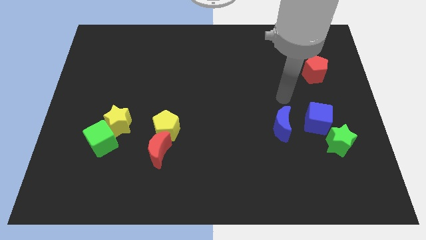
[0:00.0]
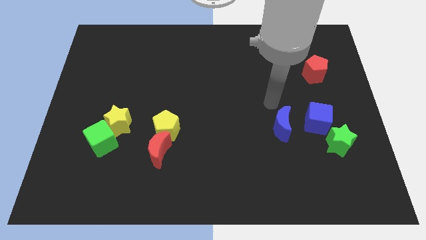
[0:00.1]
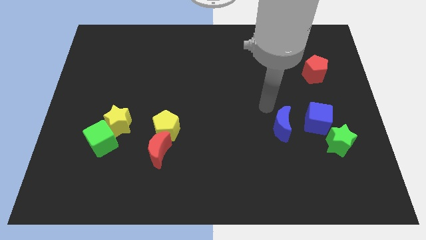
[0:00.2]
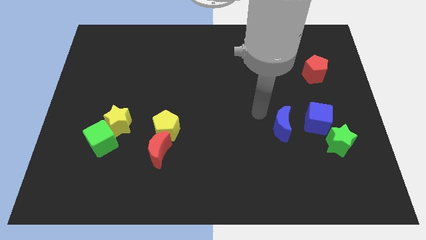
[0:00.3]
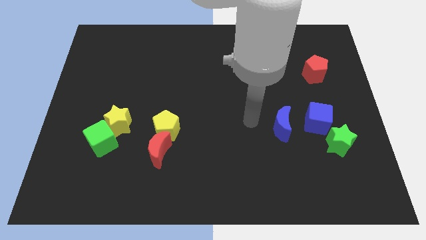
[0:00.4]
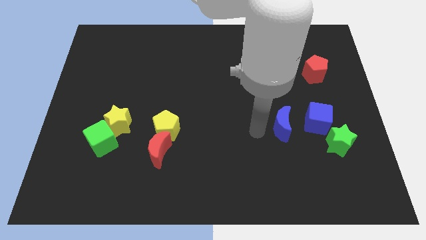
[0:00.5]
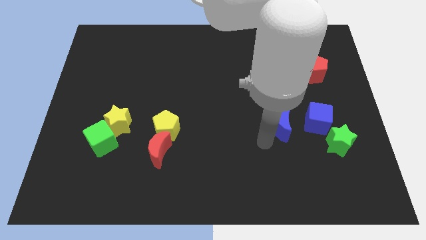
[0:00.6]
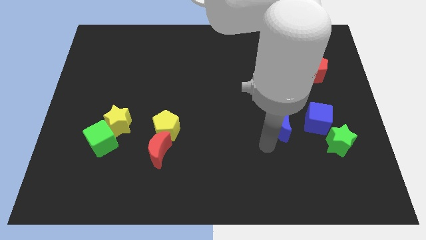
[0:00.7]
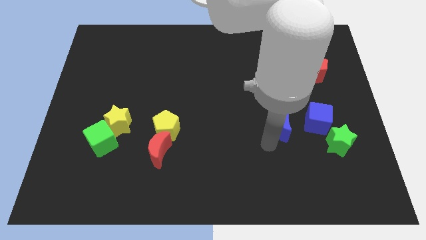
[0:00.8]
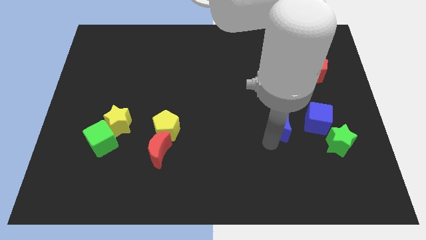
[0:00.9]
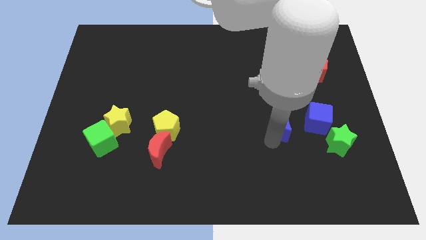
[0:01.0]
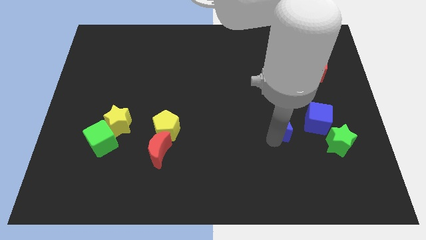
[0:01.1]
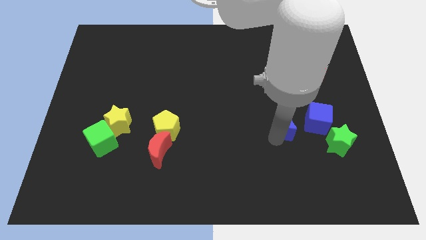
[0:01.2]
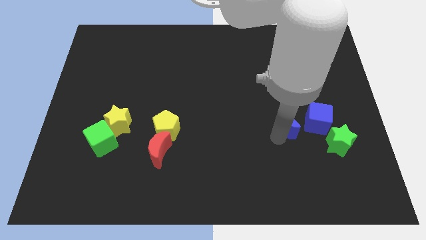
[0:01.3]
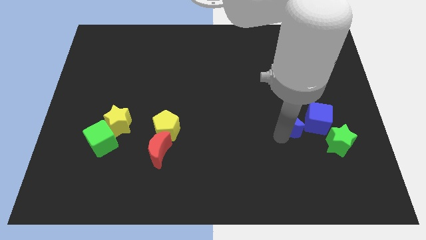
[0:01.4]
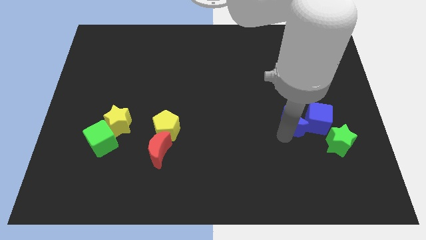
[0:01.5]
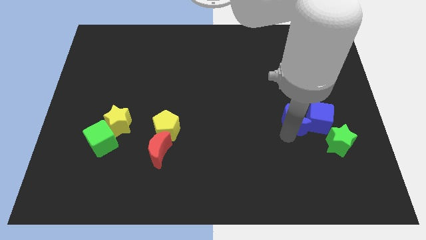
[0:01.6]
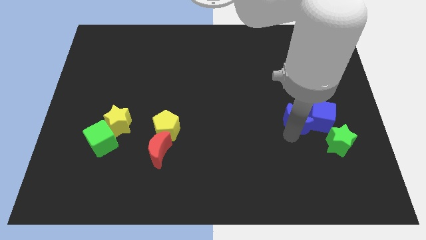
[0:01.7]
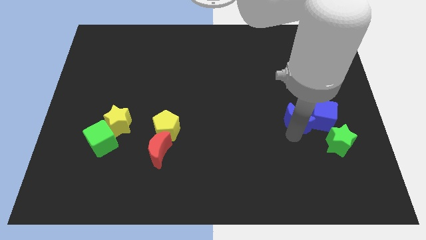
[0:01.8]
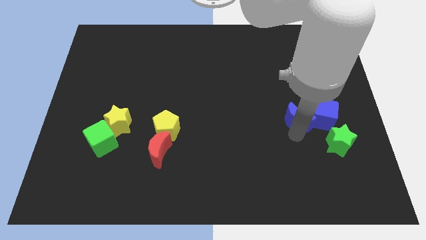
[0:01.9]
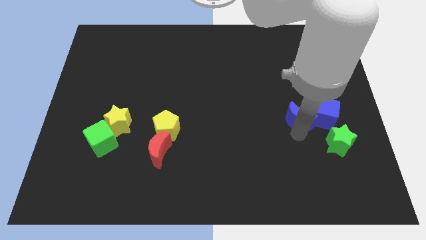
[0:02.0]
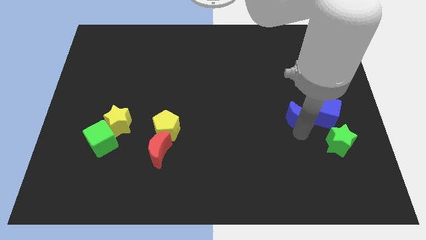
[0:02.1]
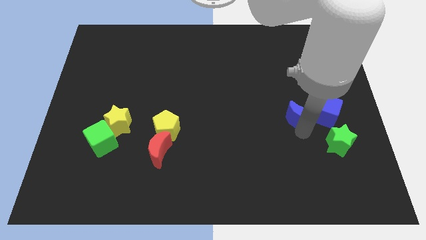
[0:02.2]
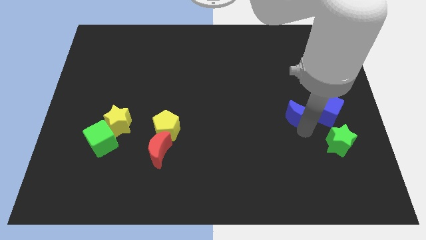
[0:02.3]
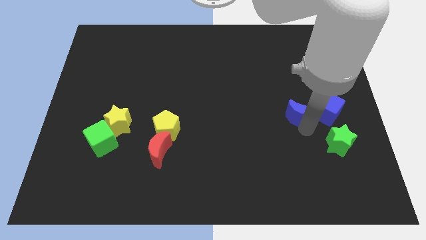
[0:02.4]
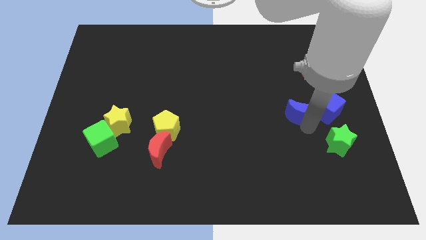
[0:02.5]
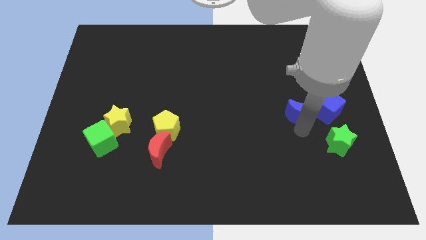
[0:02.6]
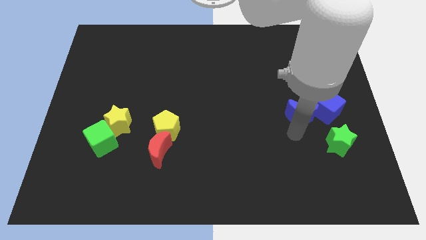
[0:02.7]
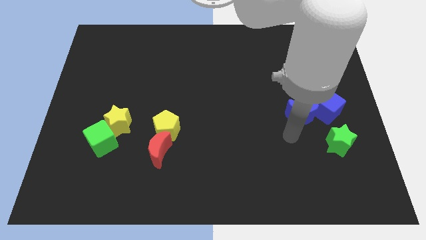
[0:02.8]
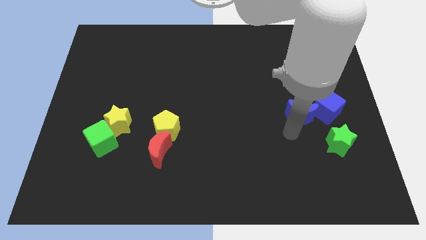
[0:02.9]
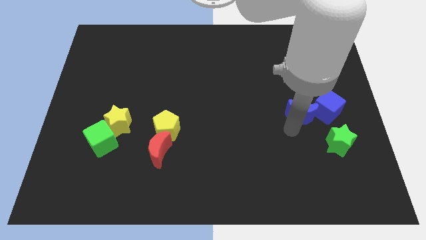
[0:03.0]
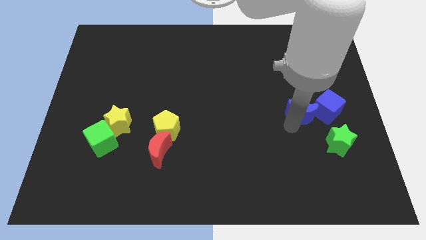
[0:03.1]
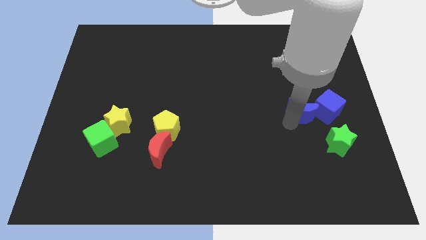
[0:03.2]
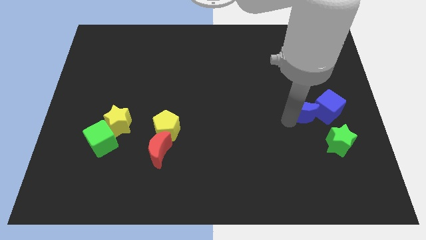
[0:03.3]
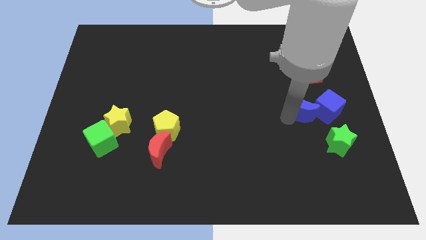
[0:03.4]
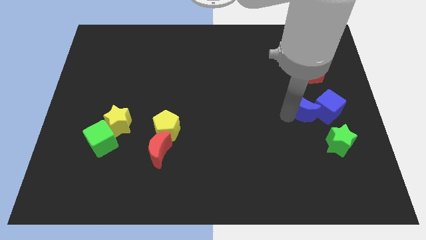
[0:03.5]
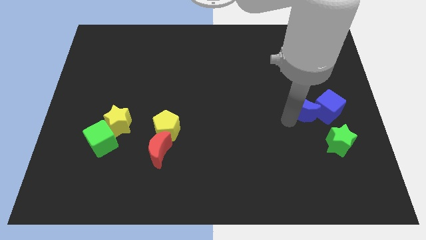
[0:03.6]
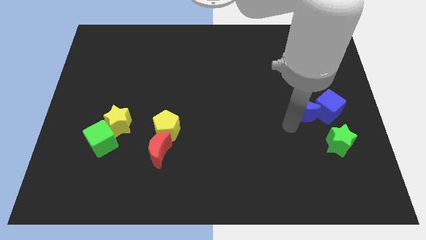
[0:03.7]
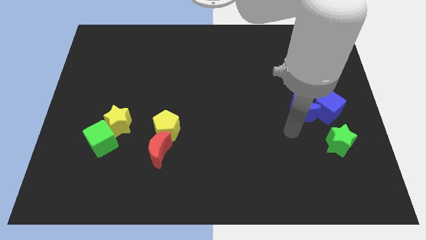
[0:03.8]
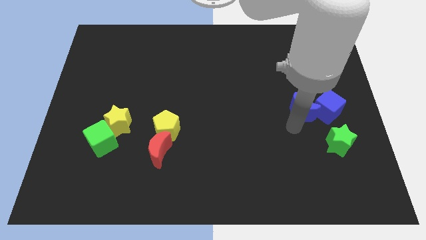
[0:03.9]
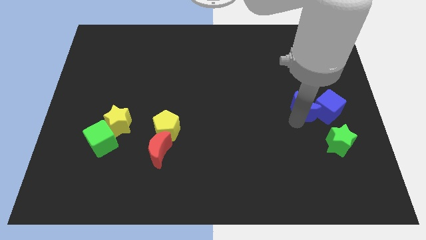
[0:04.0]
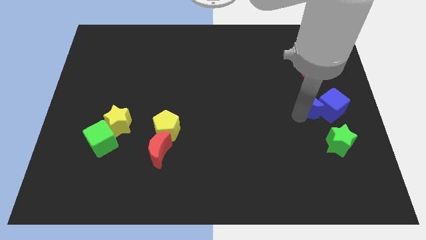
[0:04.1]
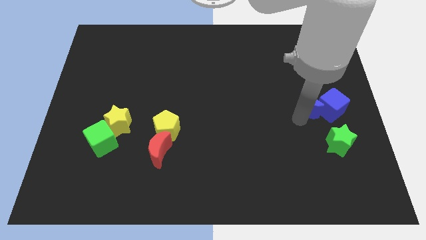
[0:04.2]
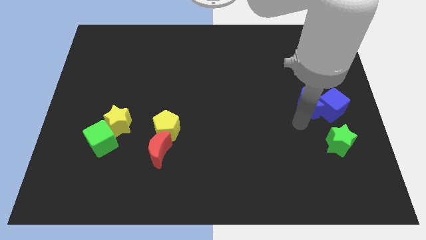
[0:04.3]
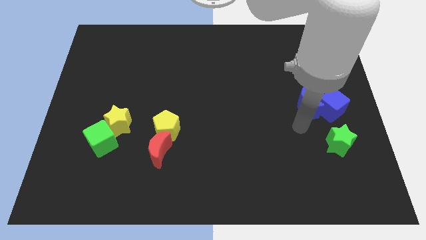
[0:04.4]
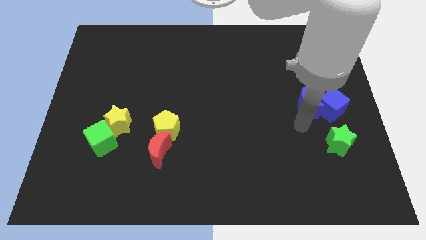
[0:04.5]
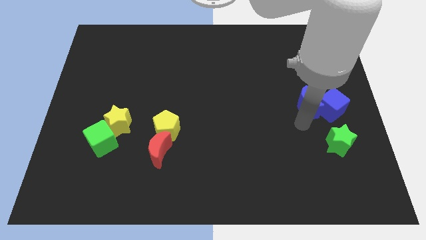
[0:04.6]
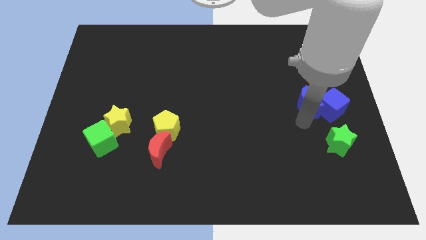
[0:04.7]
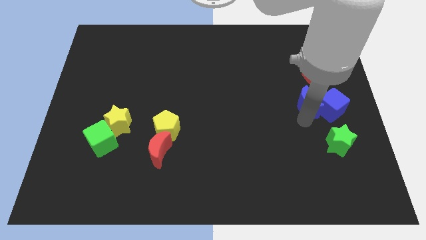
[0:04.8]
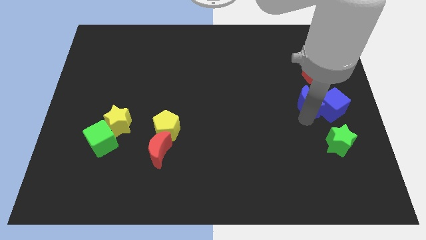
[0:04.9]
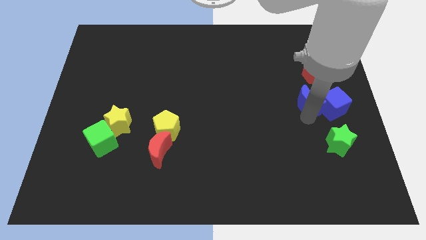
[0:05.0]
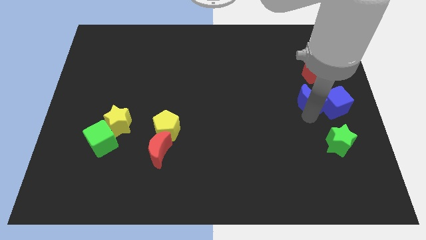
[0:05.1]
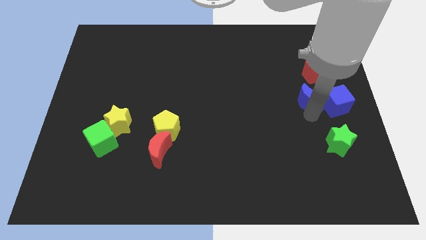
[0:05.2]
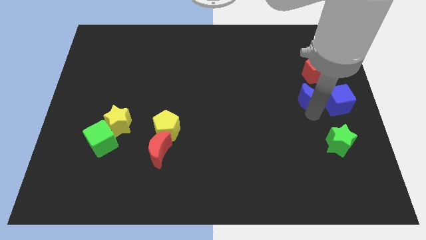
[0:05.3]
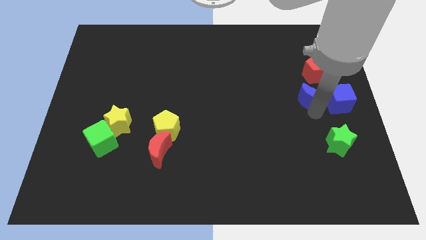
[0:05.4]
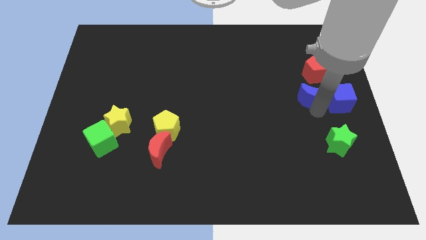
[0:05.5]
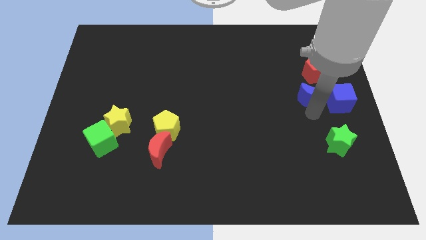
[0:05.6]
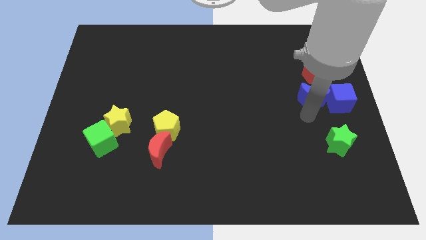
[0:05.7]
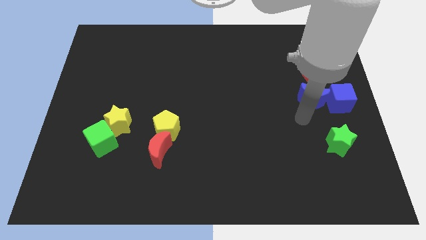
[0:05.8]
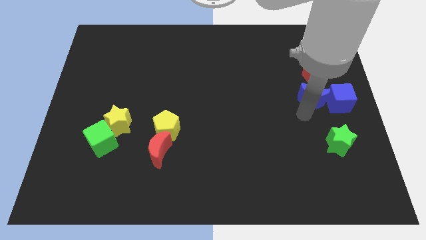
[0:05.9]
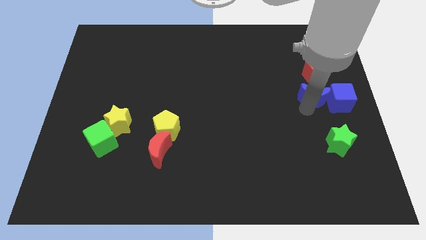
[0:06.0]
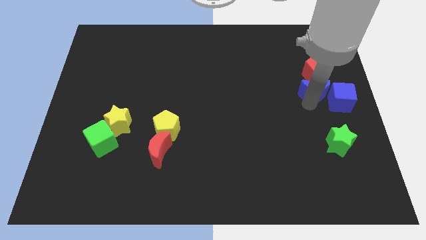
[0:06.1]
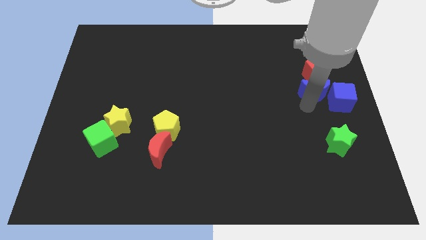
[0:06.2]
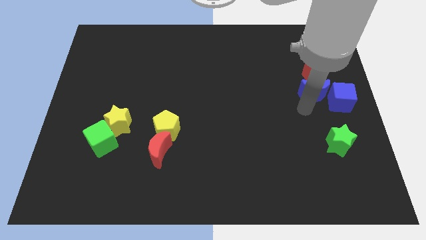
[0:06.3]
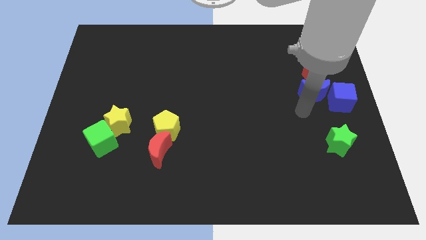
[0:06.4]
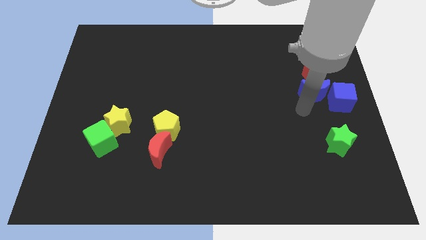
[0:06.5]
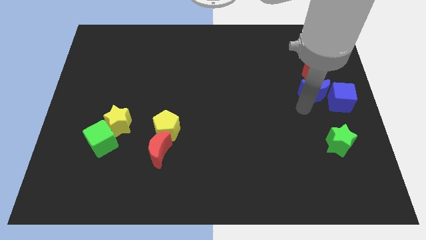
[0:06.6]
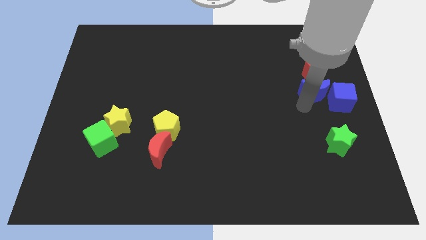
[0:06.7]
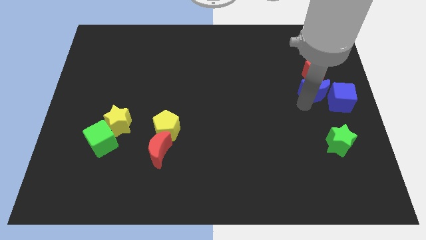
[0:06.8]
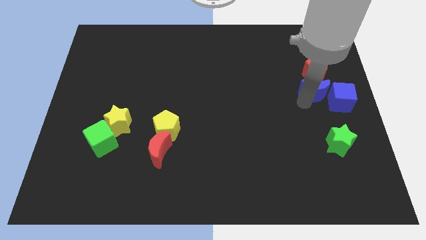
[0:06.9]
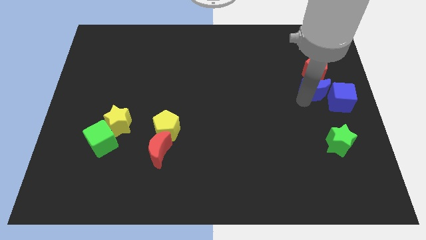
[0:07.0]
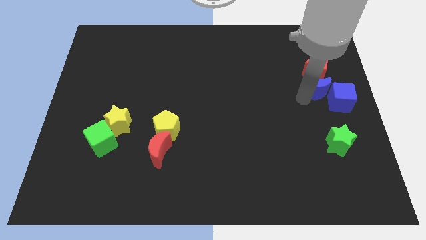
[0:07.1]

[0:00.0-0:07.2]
put the blue moon towards the red pentagon
